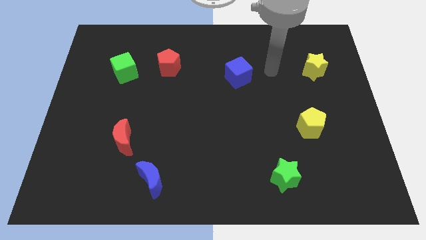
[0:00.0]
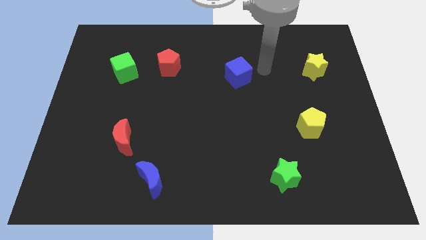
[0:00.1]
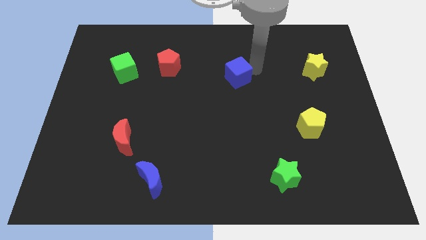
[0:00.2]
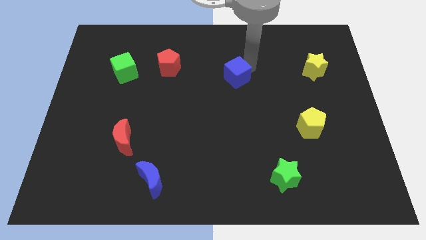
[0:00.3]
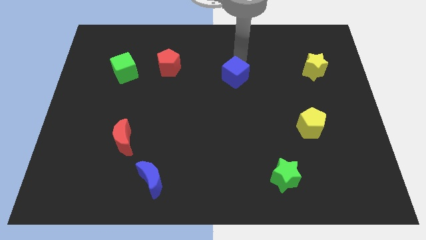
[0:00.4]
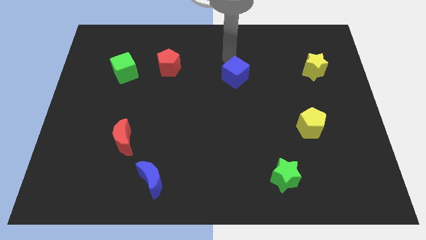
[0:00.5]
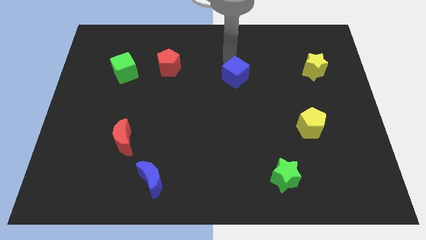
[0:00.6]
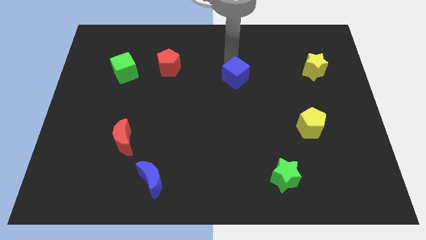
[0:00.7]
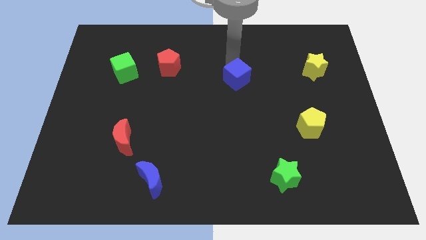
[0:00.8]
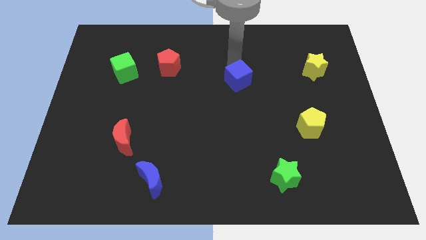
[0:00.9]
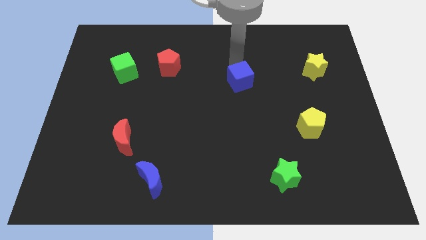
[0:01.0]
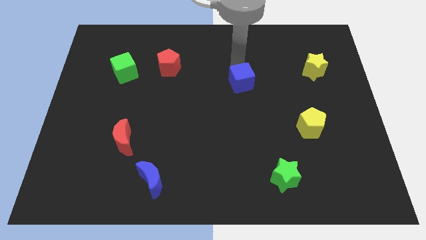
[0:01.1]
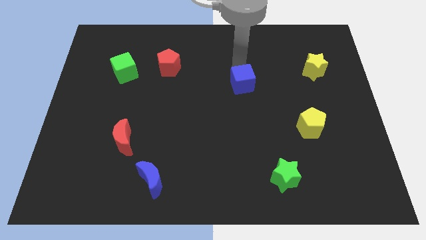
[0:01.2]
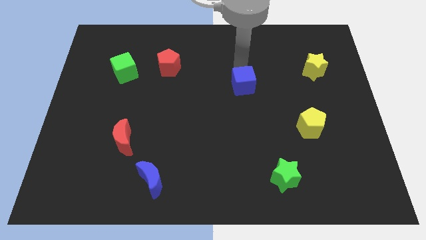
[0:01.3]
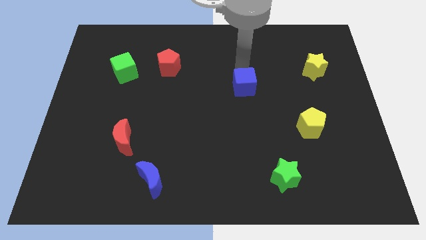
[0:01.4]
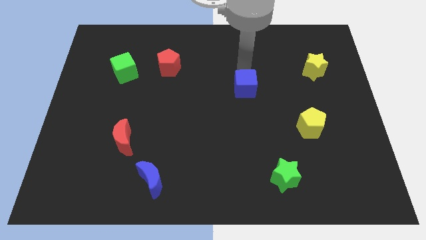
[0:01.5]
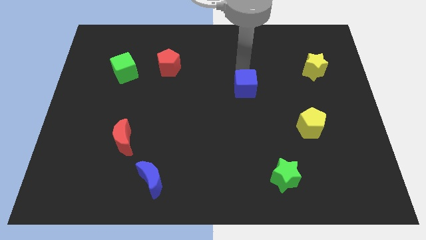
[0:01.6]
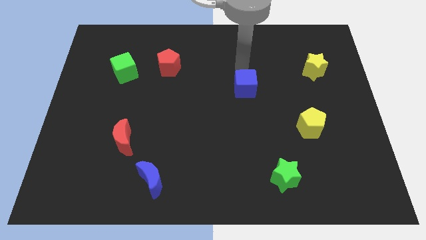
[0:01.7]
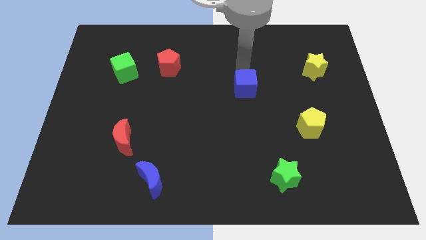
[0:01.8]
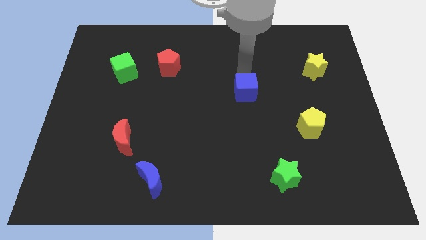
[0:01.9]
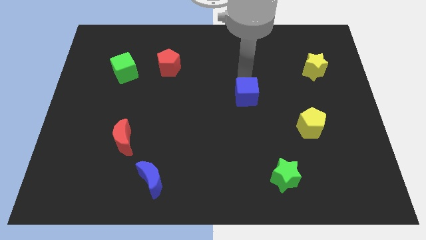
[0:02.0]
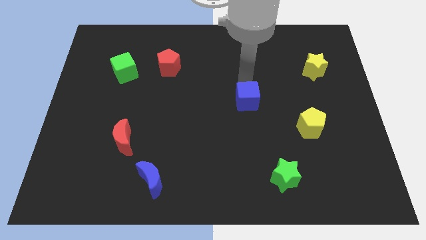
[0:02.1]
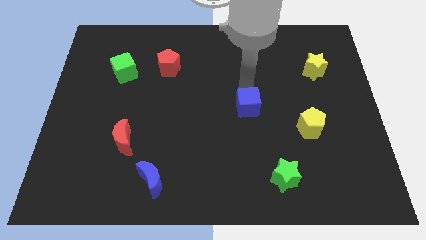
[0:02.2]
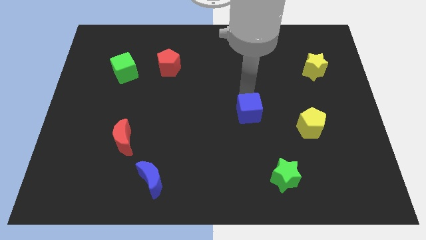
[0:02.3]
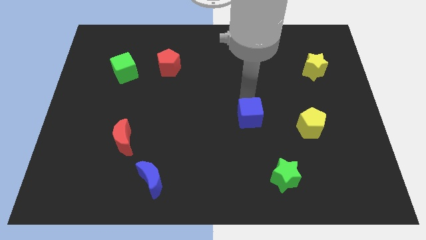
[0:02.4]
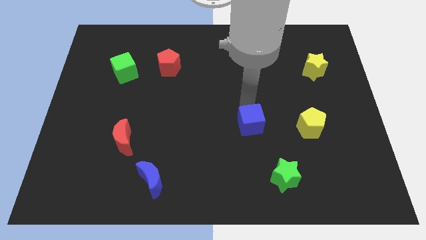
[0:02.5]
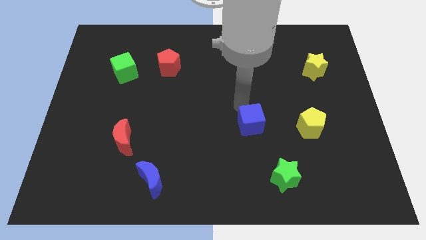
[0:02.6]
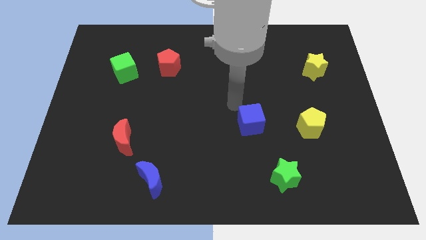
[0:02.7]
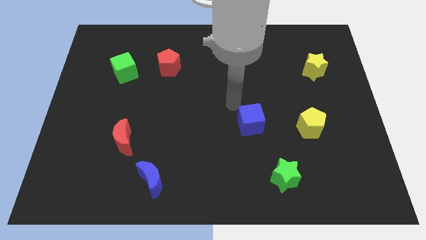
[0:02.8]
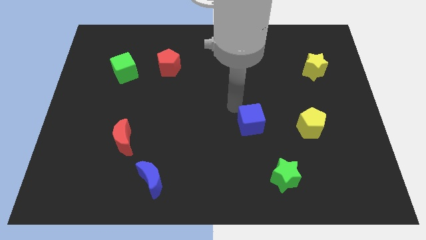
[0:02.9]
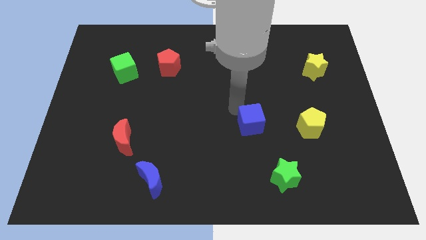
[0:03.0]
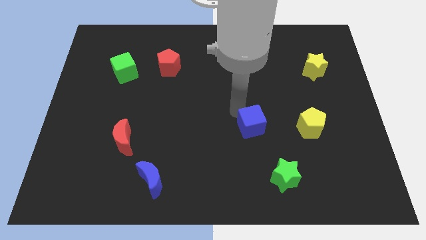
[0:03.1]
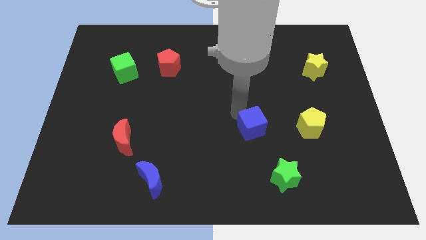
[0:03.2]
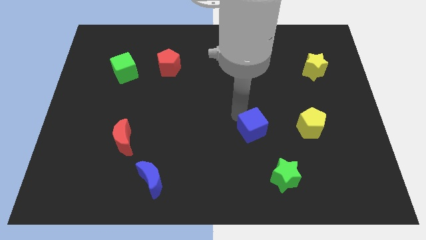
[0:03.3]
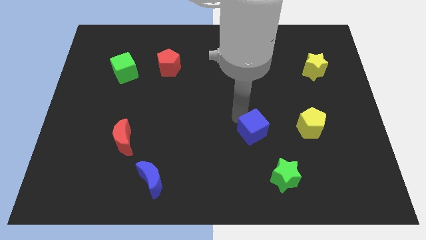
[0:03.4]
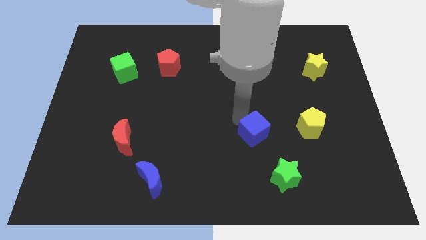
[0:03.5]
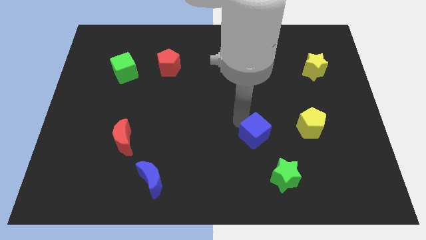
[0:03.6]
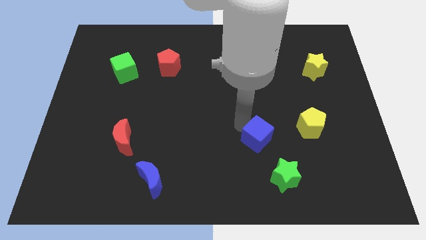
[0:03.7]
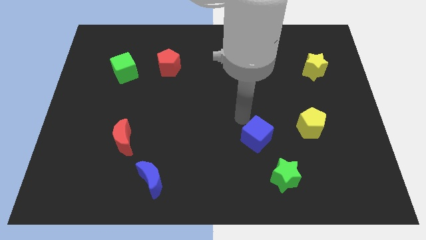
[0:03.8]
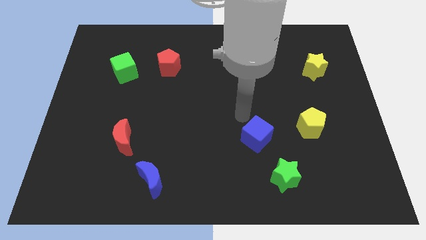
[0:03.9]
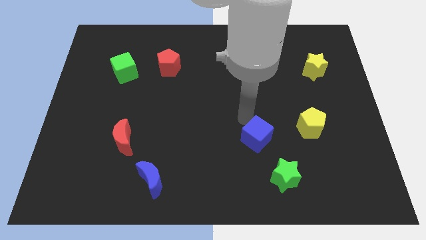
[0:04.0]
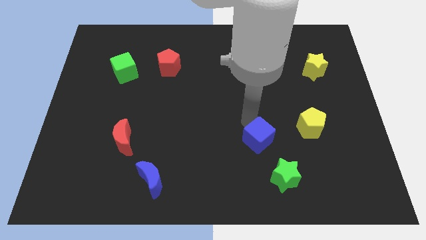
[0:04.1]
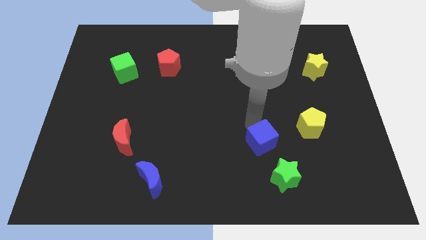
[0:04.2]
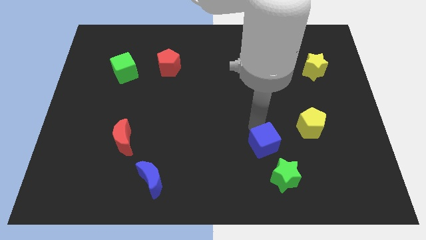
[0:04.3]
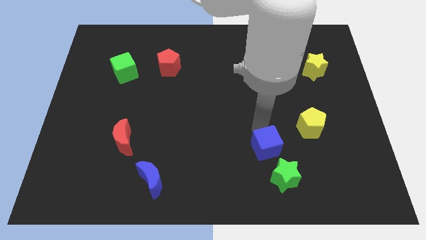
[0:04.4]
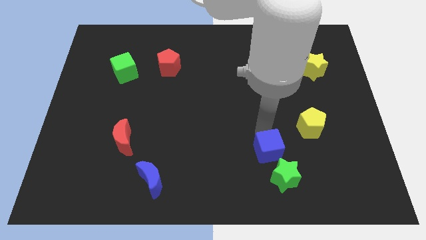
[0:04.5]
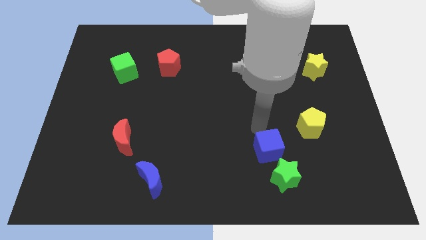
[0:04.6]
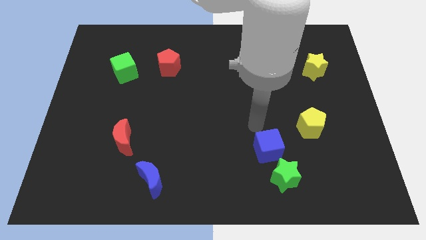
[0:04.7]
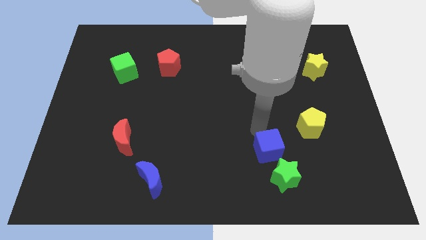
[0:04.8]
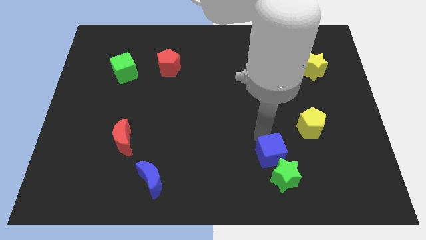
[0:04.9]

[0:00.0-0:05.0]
put the blue cube next to the green star

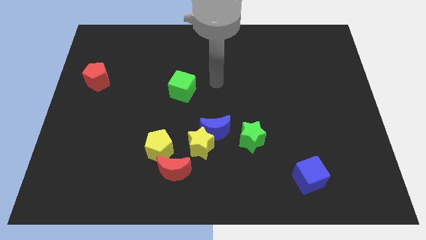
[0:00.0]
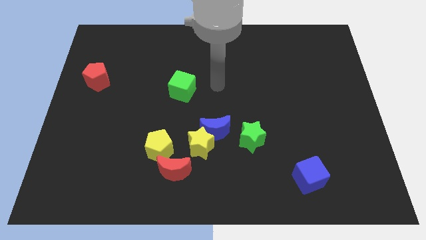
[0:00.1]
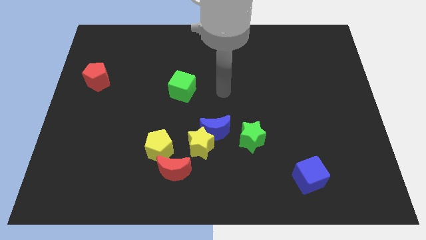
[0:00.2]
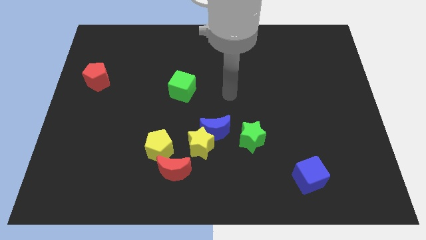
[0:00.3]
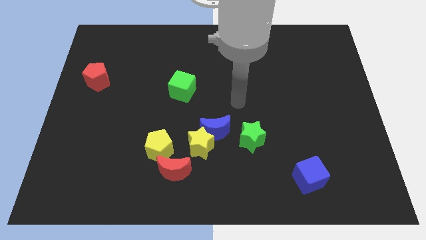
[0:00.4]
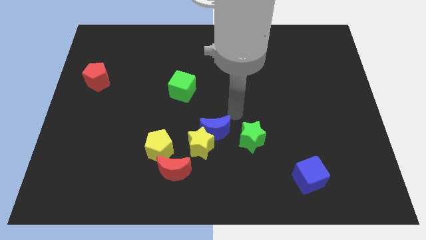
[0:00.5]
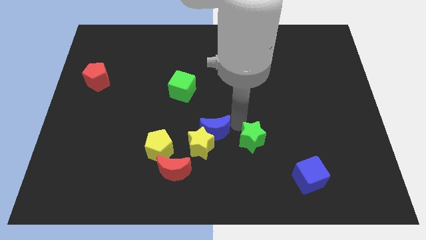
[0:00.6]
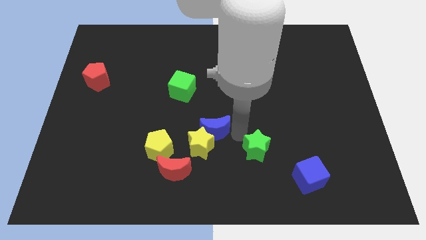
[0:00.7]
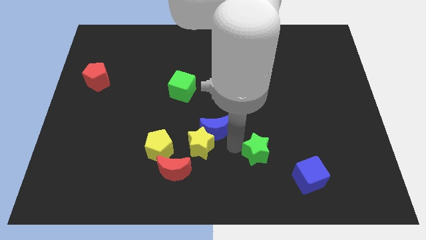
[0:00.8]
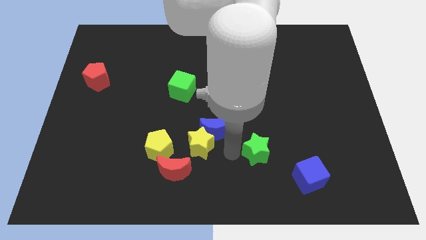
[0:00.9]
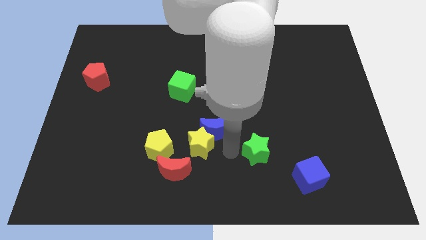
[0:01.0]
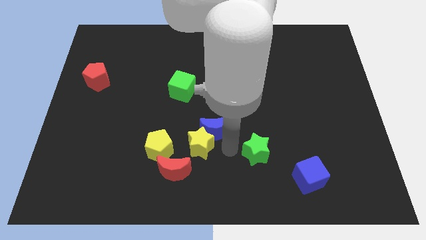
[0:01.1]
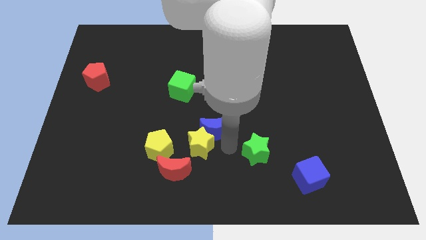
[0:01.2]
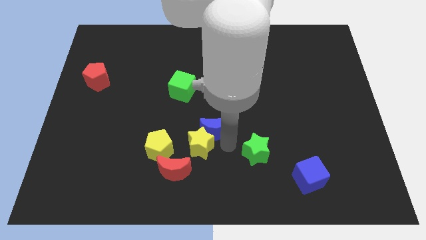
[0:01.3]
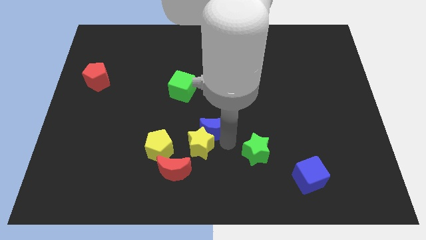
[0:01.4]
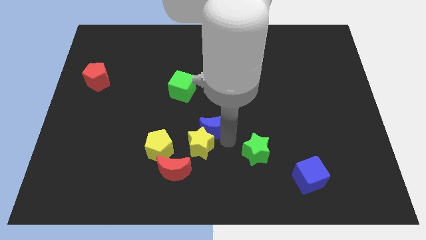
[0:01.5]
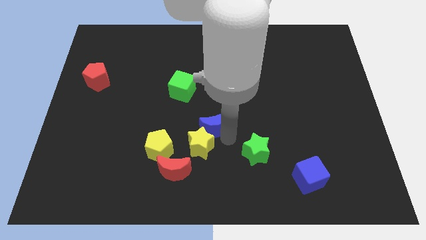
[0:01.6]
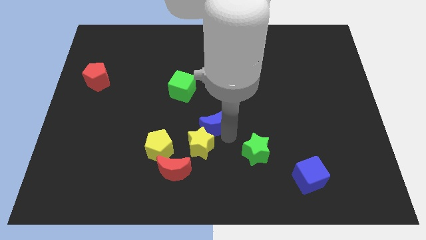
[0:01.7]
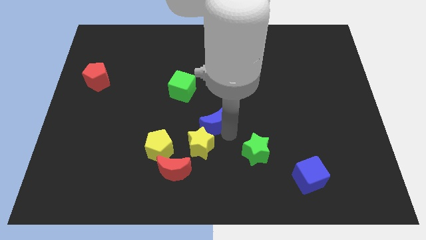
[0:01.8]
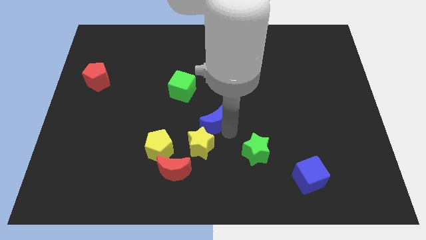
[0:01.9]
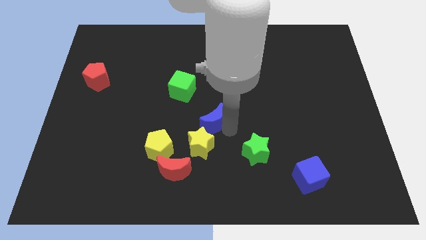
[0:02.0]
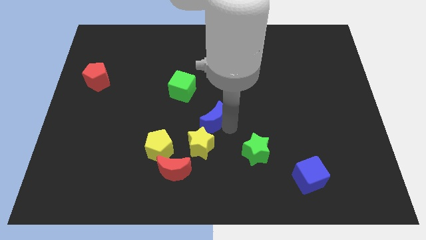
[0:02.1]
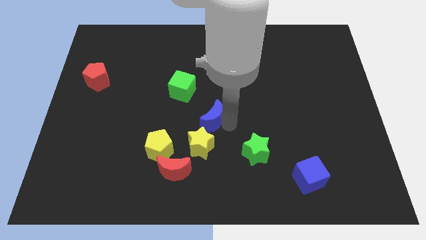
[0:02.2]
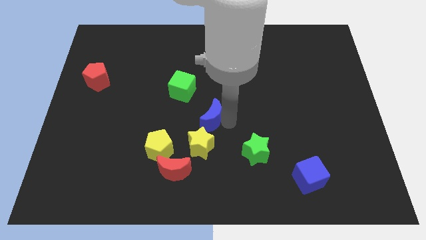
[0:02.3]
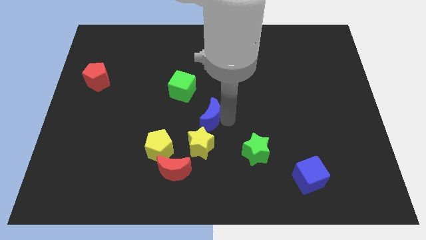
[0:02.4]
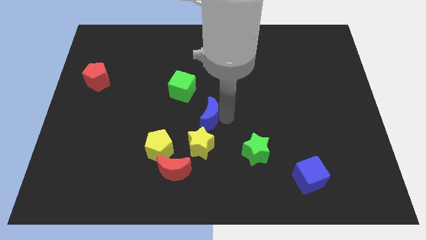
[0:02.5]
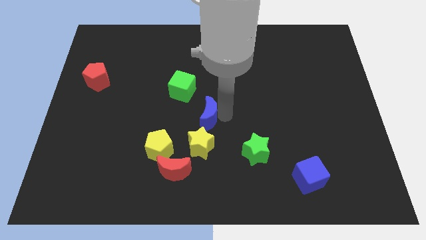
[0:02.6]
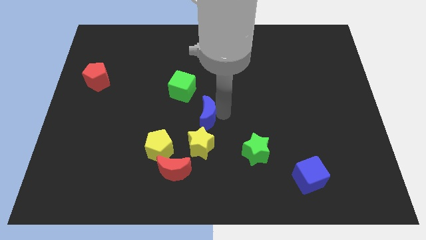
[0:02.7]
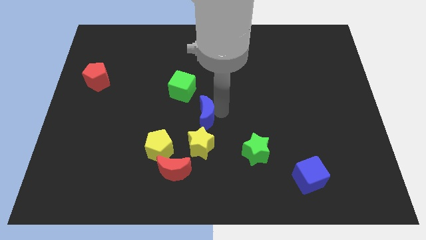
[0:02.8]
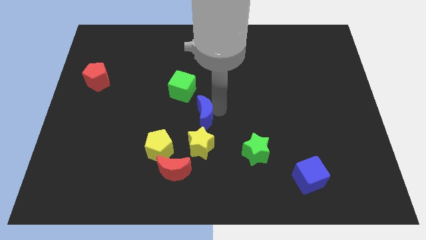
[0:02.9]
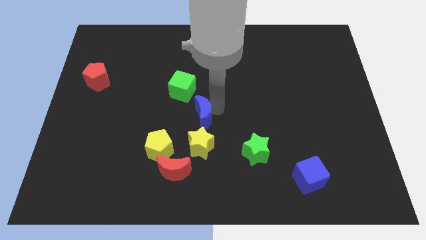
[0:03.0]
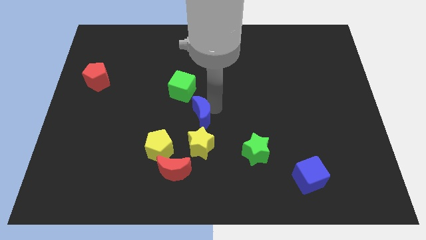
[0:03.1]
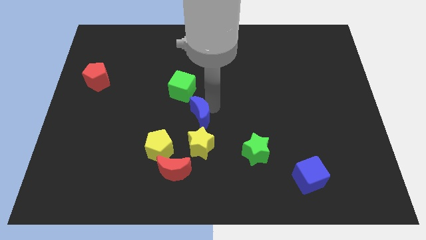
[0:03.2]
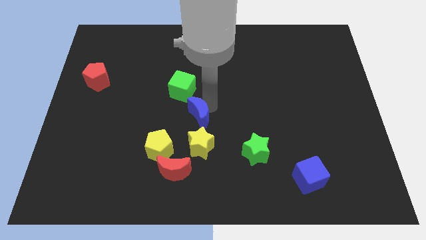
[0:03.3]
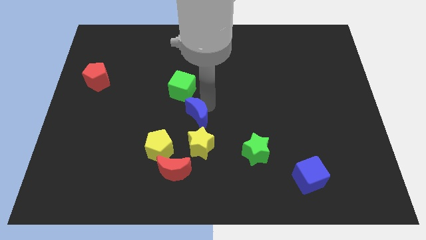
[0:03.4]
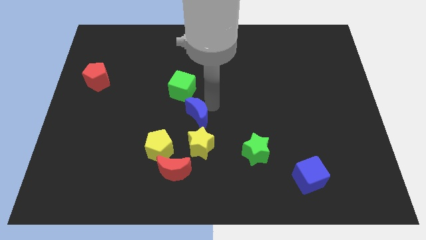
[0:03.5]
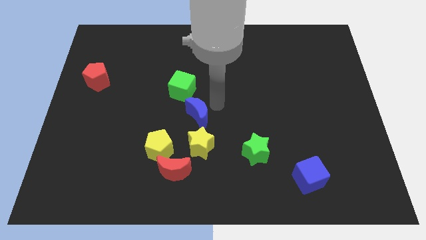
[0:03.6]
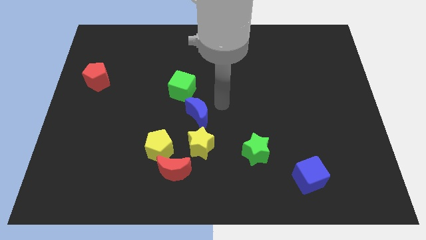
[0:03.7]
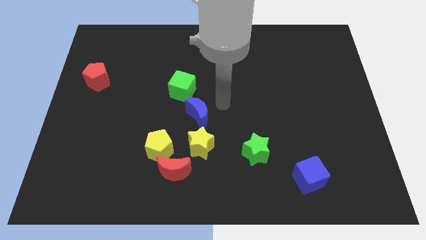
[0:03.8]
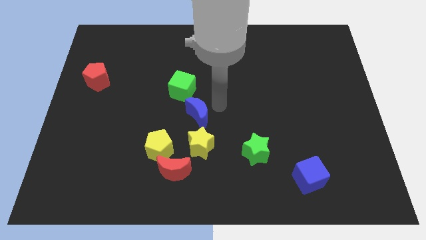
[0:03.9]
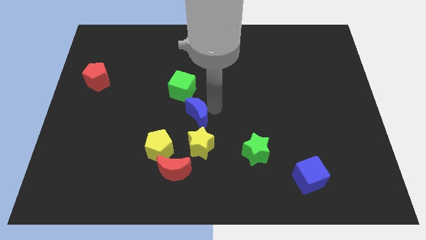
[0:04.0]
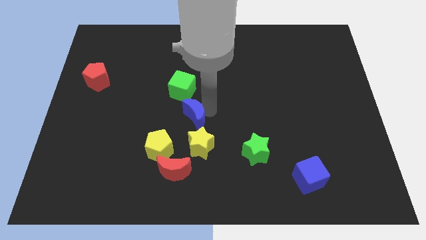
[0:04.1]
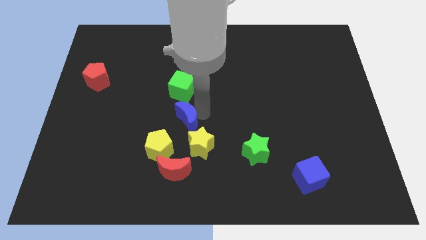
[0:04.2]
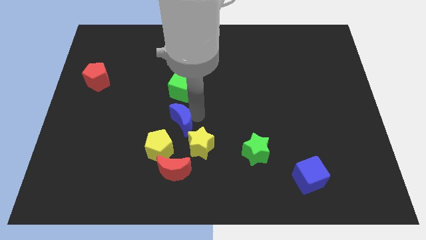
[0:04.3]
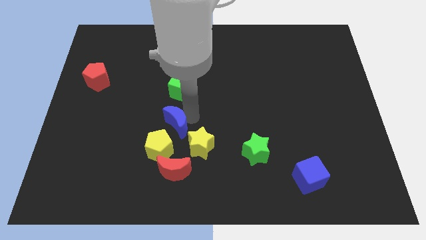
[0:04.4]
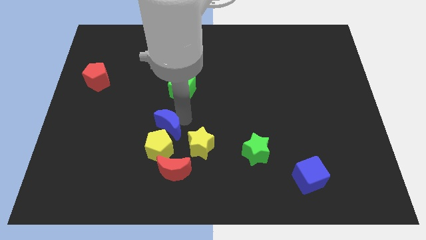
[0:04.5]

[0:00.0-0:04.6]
slide the blue moon next to the yellow pentagon
